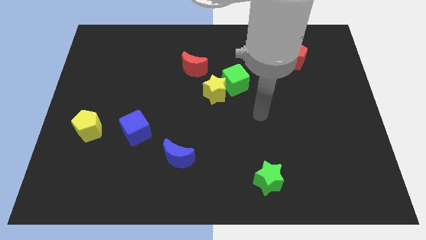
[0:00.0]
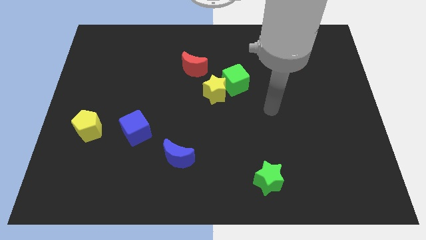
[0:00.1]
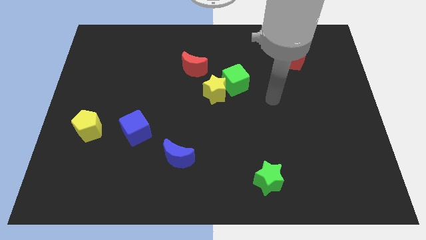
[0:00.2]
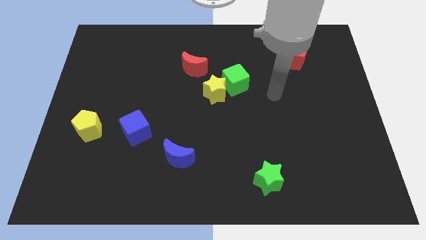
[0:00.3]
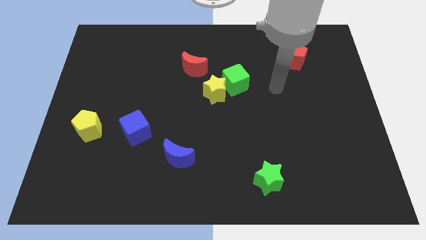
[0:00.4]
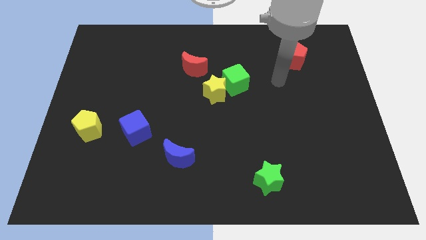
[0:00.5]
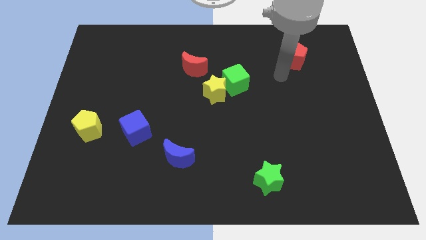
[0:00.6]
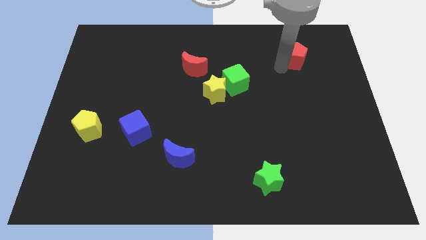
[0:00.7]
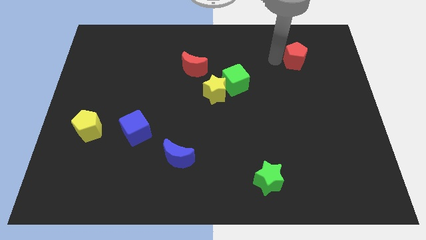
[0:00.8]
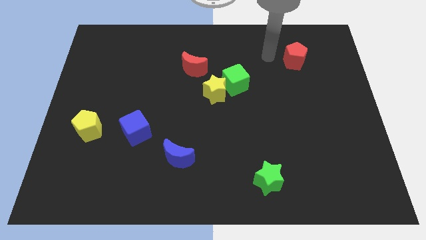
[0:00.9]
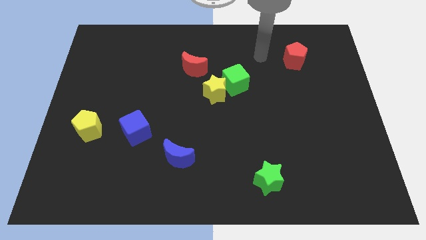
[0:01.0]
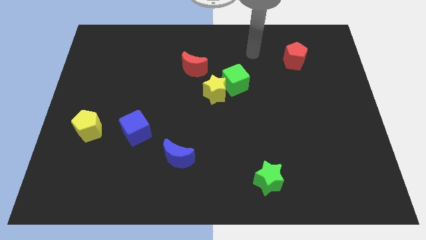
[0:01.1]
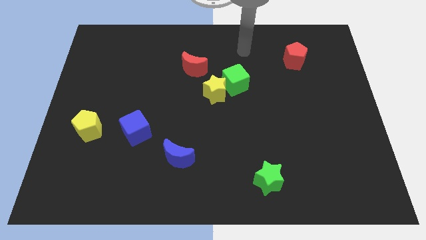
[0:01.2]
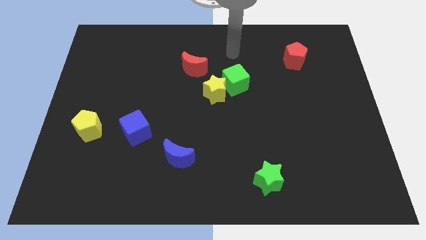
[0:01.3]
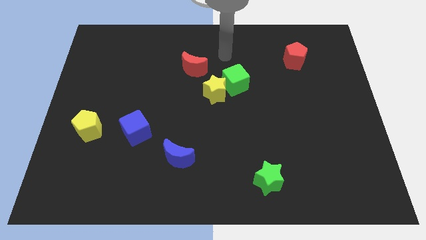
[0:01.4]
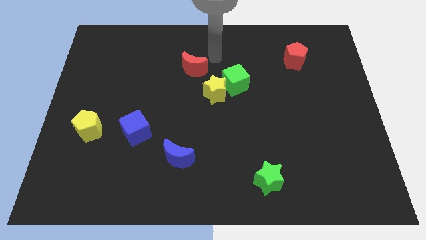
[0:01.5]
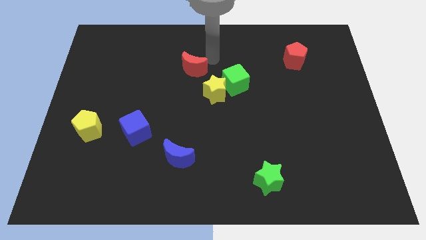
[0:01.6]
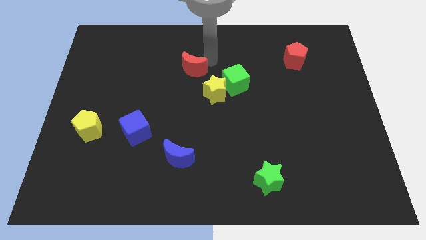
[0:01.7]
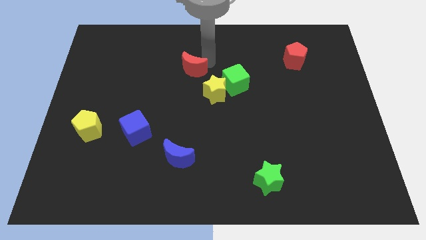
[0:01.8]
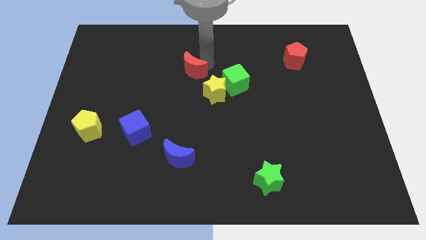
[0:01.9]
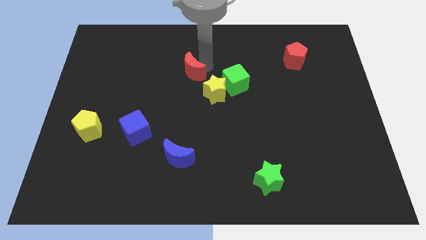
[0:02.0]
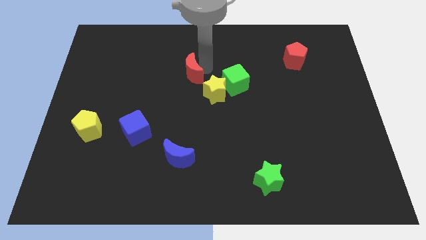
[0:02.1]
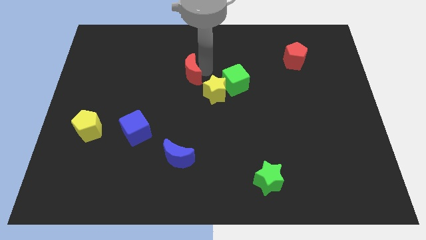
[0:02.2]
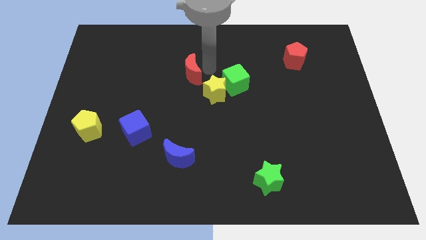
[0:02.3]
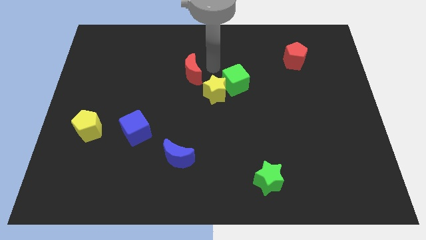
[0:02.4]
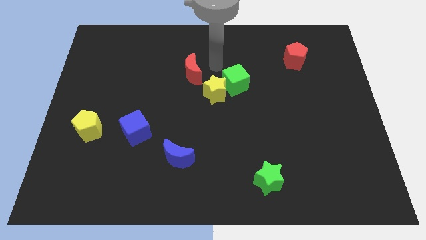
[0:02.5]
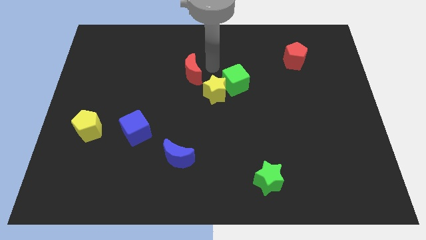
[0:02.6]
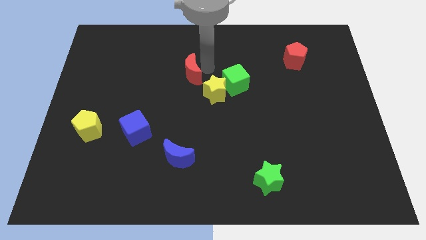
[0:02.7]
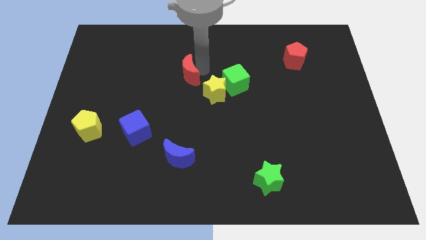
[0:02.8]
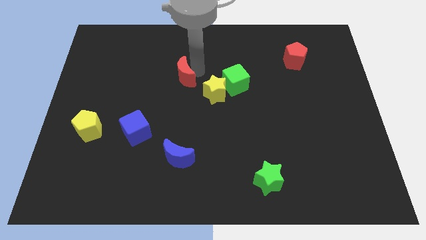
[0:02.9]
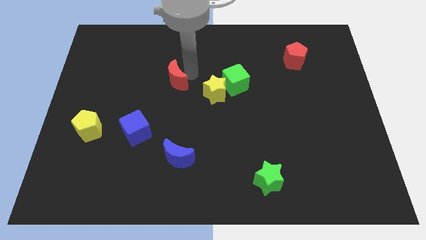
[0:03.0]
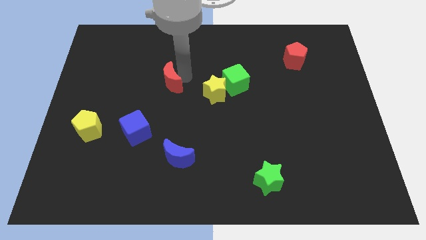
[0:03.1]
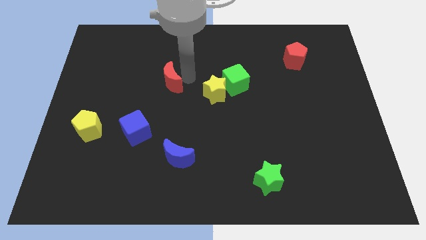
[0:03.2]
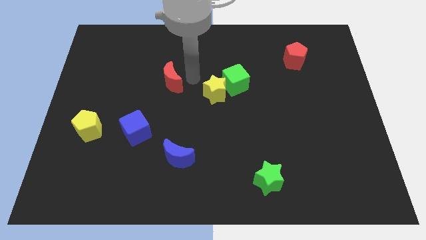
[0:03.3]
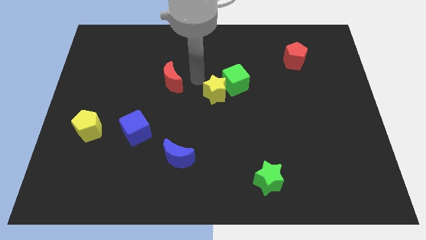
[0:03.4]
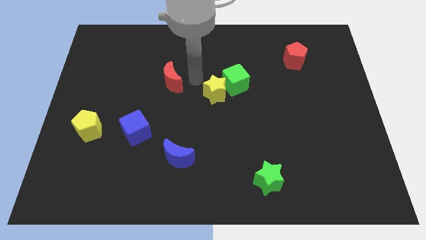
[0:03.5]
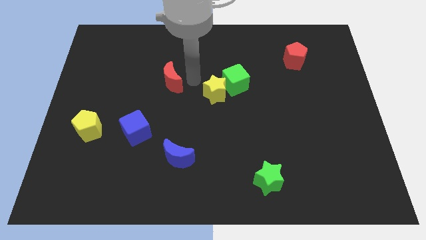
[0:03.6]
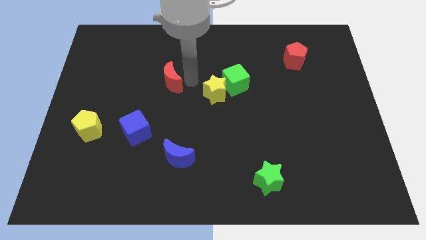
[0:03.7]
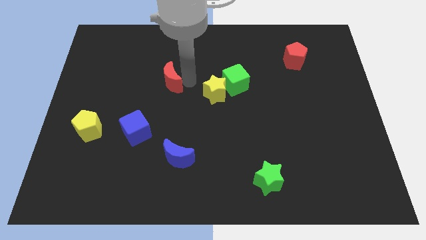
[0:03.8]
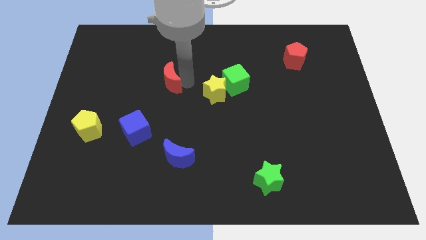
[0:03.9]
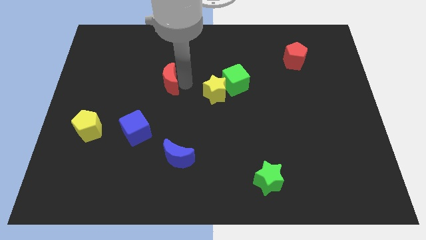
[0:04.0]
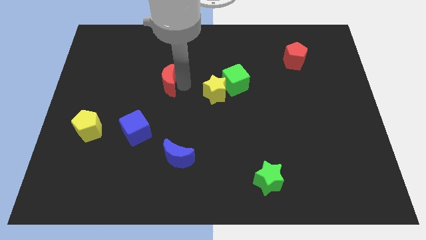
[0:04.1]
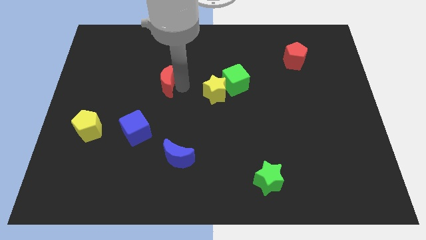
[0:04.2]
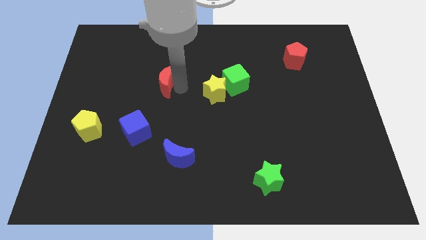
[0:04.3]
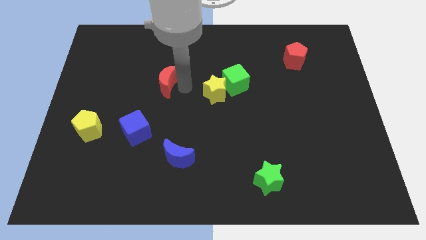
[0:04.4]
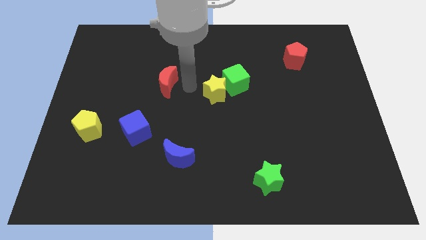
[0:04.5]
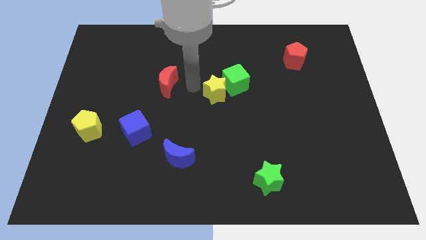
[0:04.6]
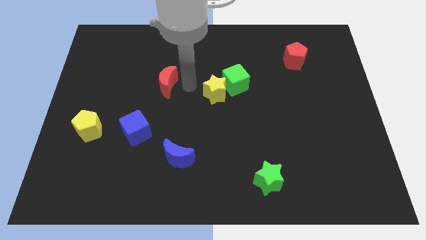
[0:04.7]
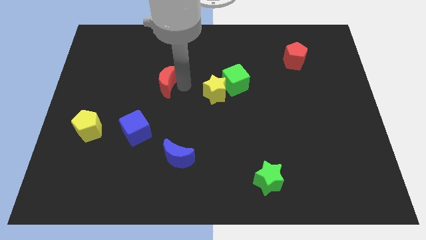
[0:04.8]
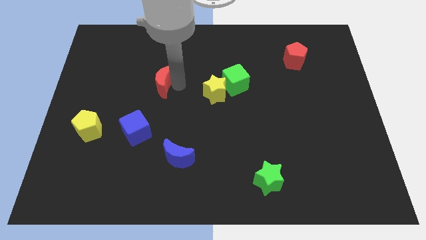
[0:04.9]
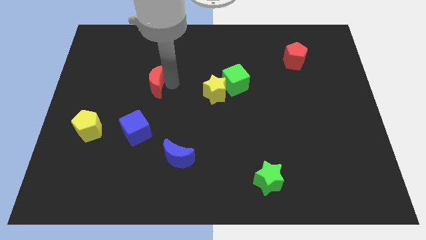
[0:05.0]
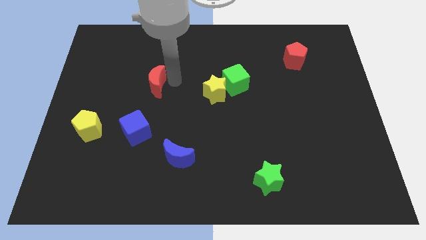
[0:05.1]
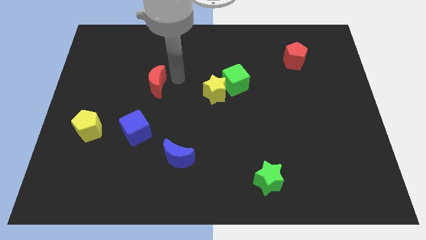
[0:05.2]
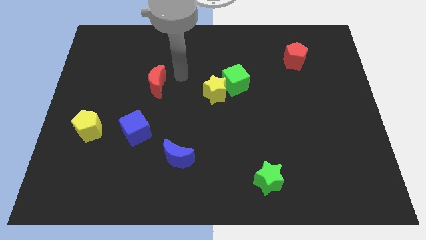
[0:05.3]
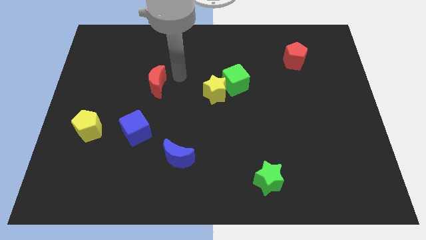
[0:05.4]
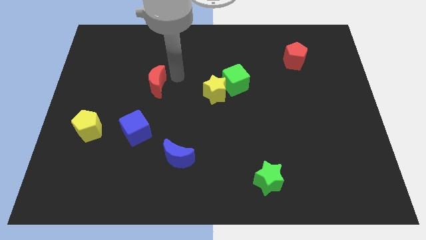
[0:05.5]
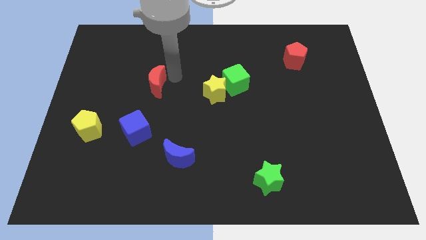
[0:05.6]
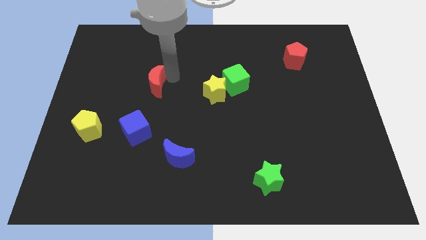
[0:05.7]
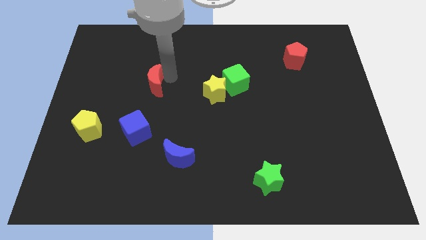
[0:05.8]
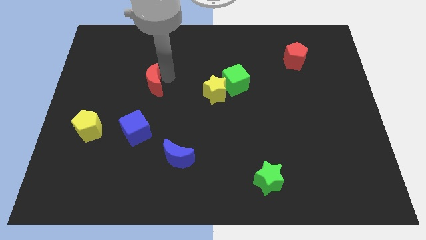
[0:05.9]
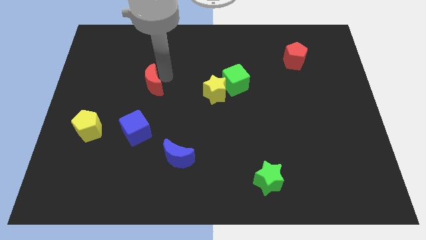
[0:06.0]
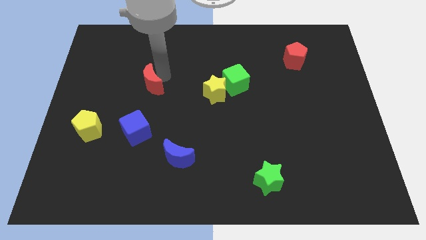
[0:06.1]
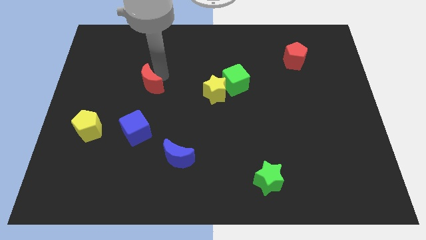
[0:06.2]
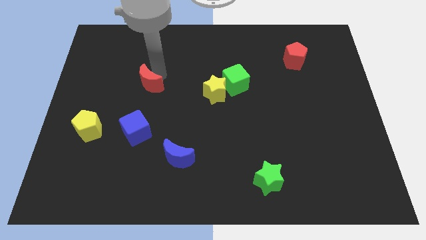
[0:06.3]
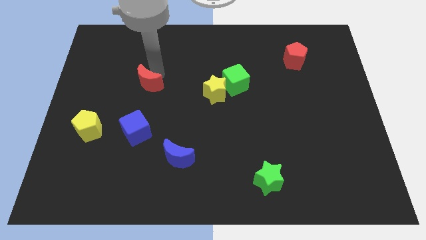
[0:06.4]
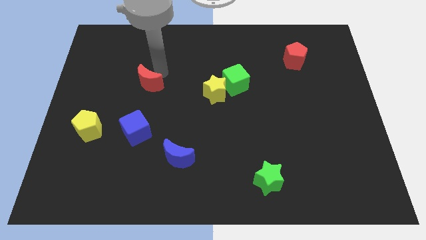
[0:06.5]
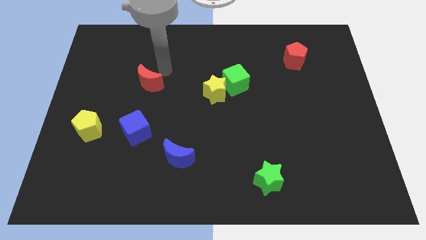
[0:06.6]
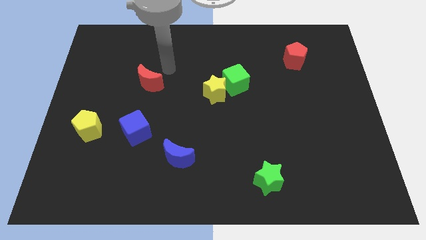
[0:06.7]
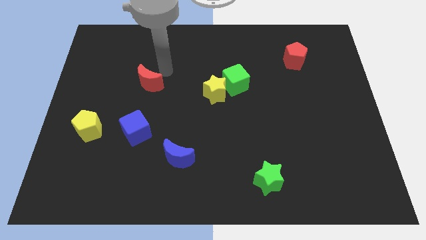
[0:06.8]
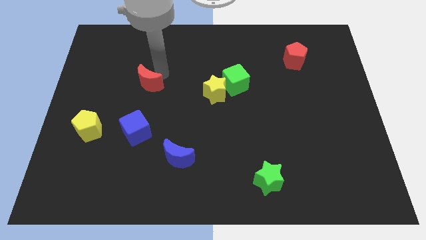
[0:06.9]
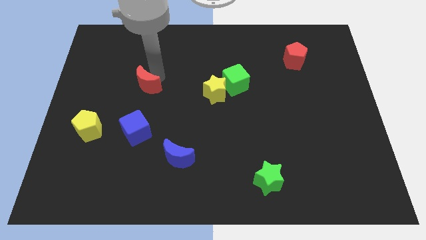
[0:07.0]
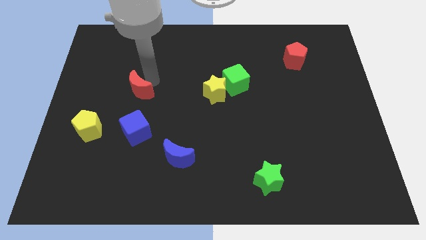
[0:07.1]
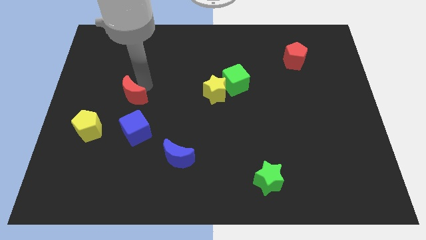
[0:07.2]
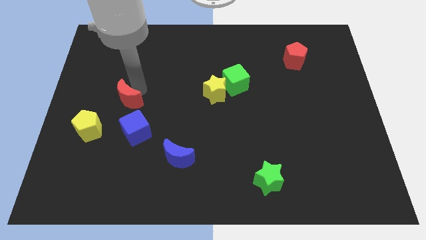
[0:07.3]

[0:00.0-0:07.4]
slide the red moon to the top right side of the yellow pentagon
